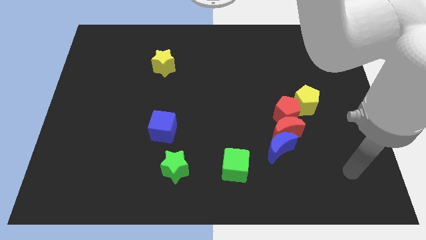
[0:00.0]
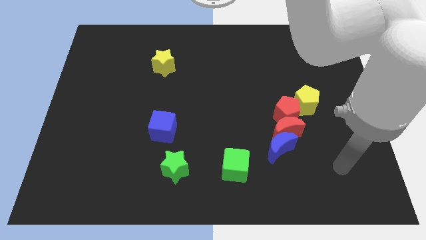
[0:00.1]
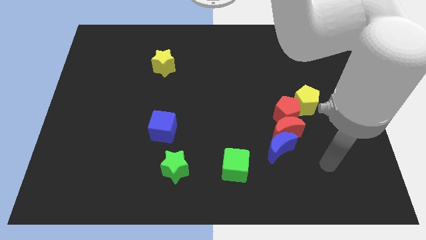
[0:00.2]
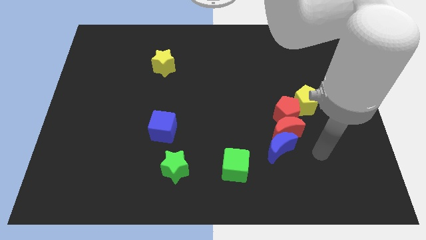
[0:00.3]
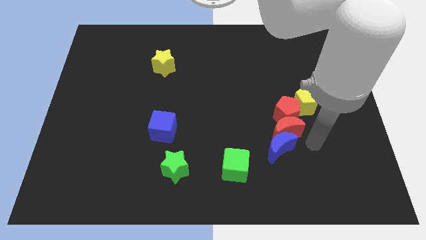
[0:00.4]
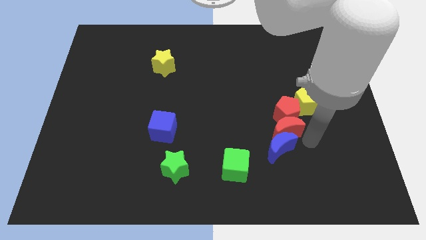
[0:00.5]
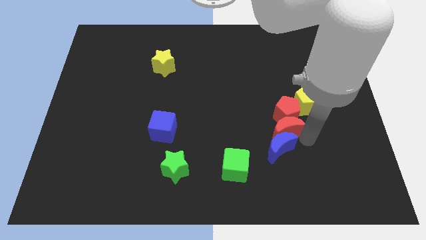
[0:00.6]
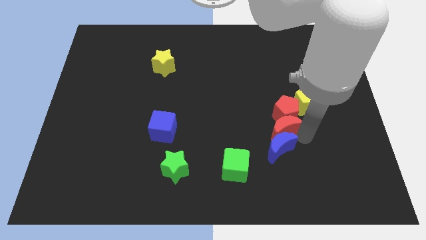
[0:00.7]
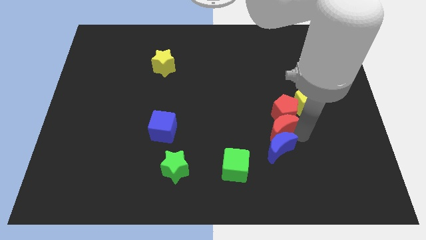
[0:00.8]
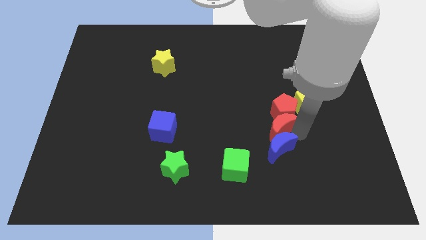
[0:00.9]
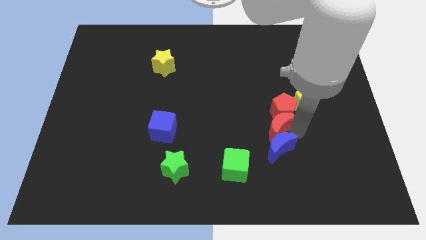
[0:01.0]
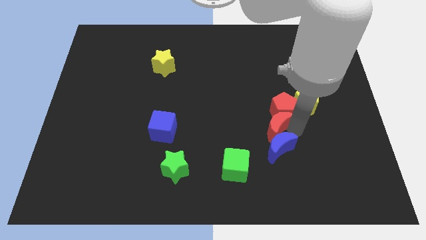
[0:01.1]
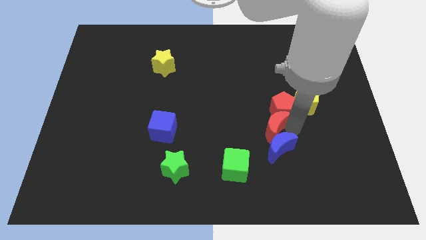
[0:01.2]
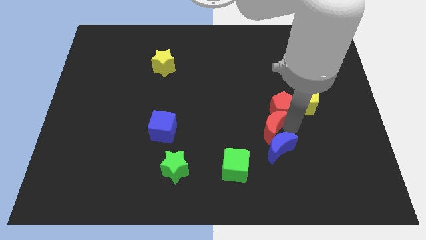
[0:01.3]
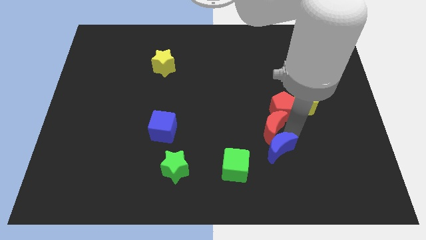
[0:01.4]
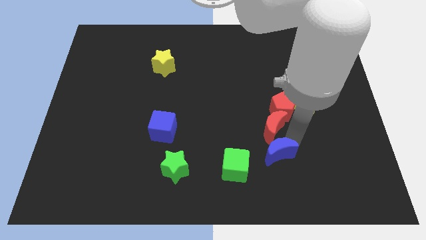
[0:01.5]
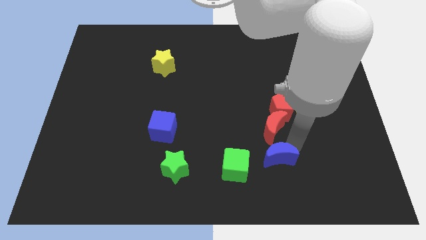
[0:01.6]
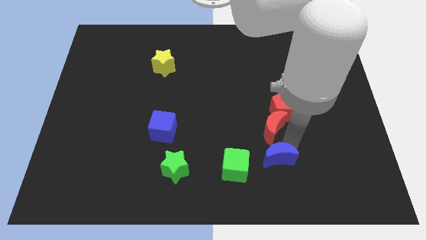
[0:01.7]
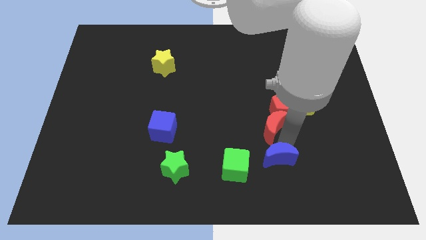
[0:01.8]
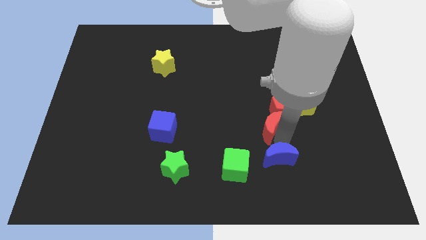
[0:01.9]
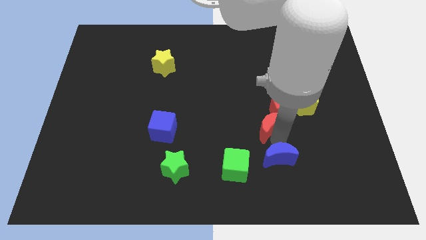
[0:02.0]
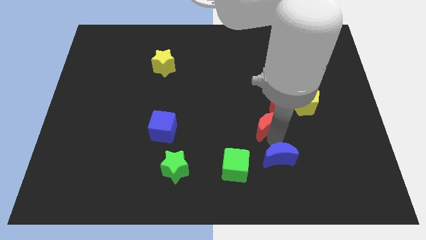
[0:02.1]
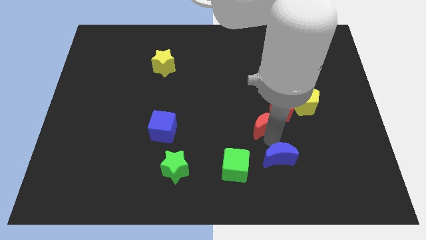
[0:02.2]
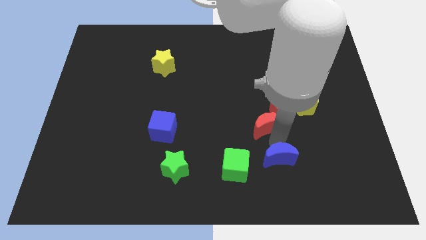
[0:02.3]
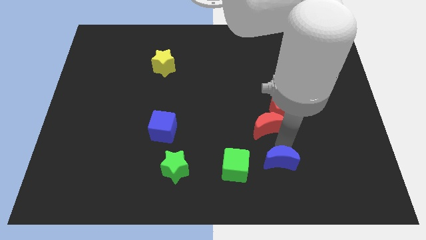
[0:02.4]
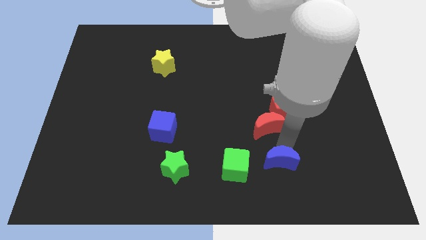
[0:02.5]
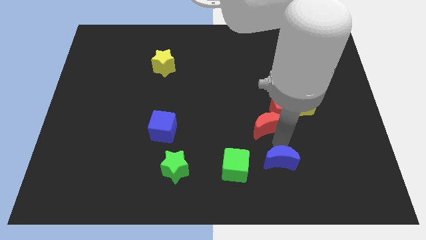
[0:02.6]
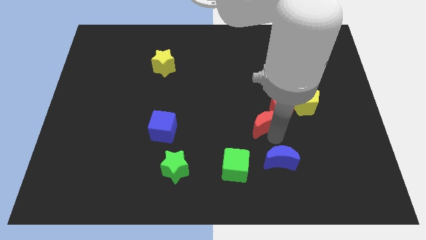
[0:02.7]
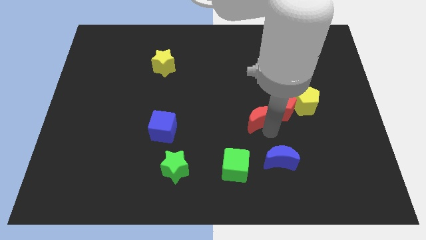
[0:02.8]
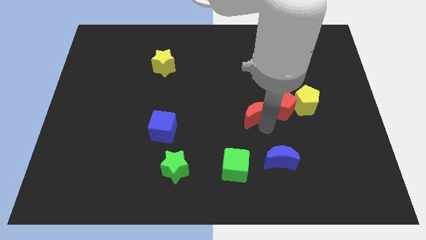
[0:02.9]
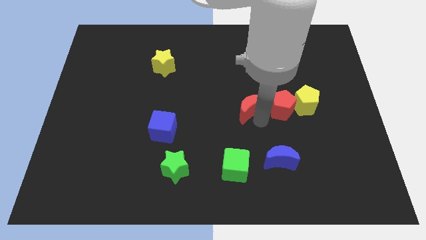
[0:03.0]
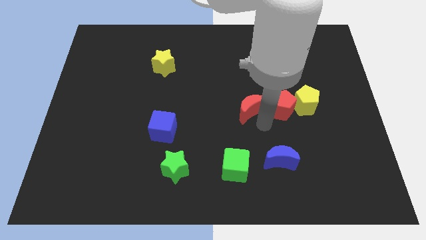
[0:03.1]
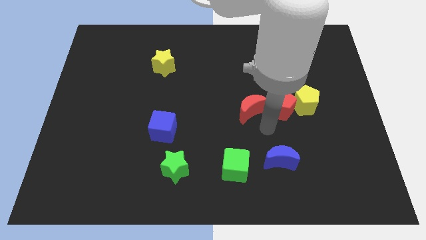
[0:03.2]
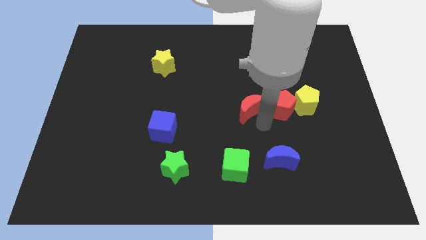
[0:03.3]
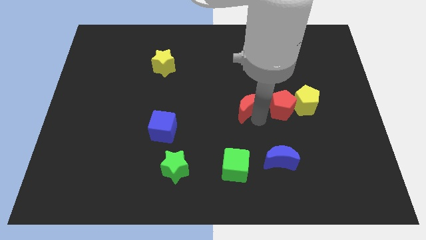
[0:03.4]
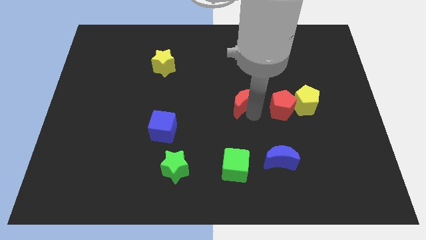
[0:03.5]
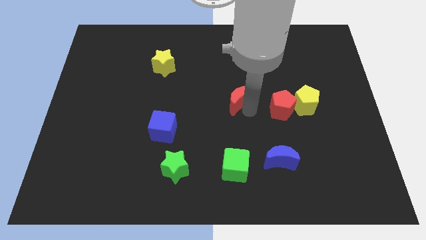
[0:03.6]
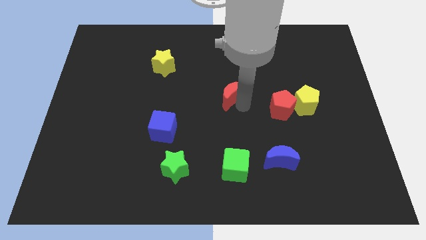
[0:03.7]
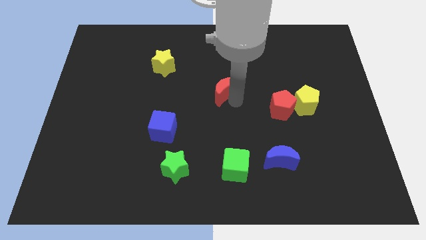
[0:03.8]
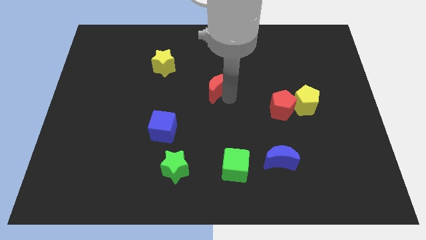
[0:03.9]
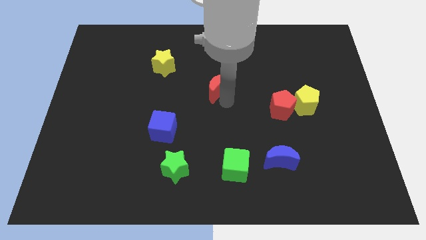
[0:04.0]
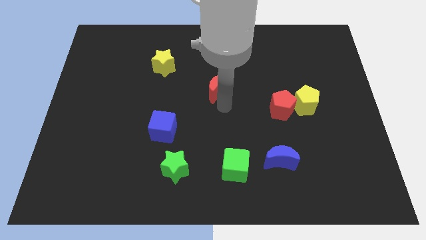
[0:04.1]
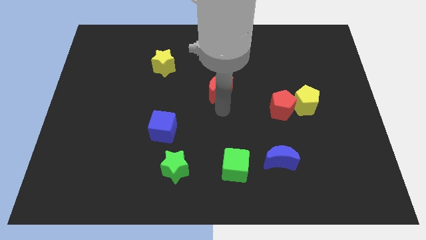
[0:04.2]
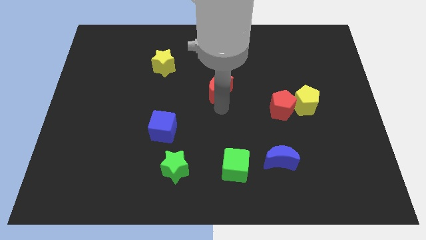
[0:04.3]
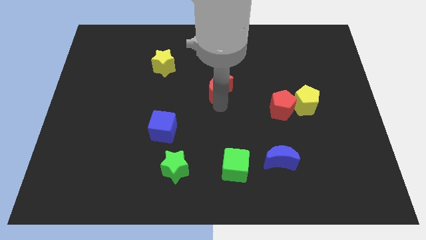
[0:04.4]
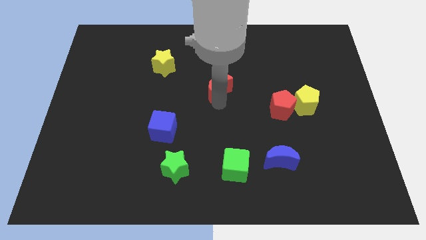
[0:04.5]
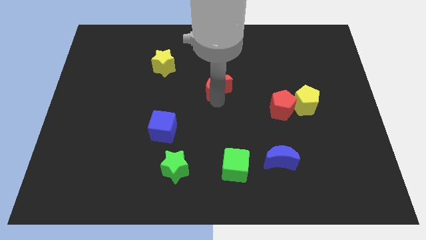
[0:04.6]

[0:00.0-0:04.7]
move the red moon up and left

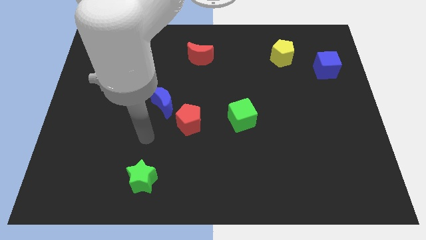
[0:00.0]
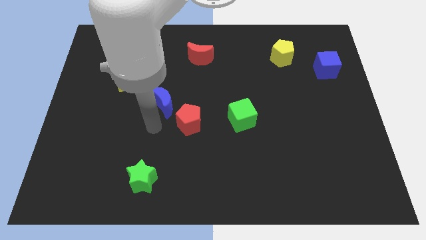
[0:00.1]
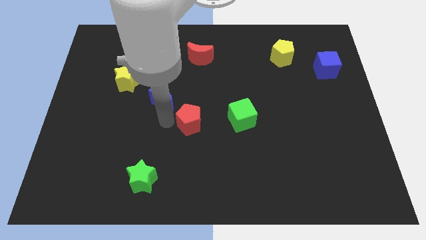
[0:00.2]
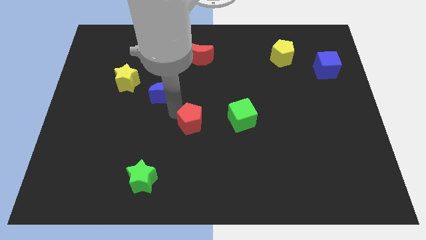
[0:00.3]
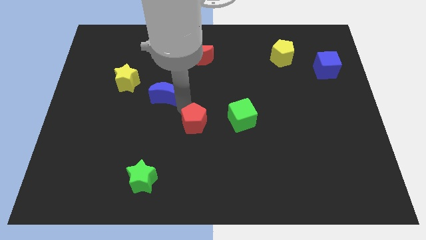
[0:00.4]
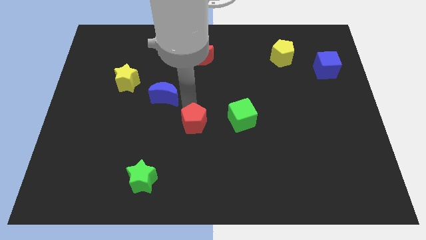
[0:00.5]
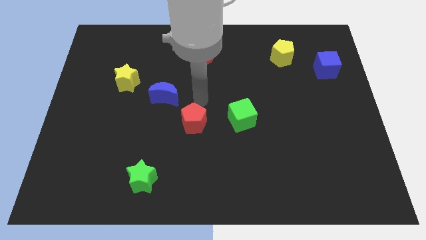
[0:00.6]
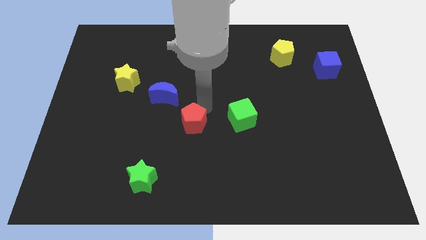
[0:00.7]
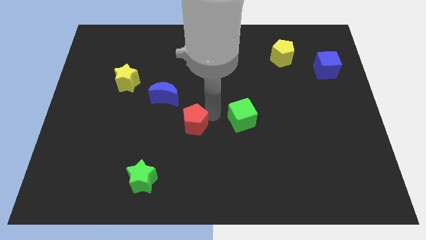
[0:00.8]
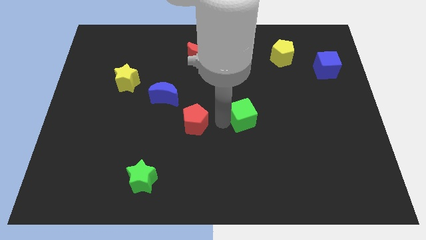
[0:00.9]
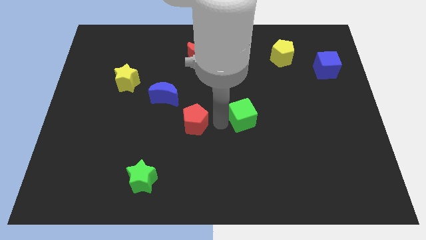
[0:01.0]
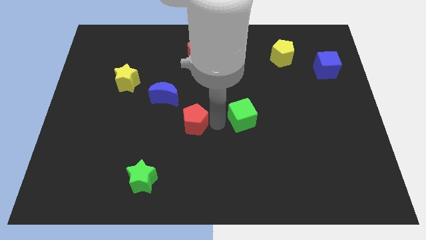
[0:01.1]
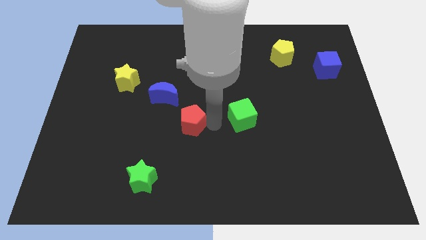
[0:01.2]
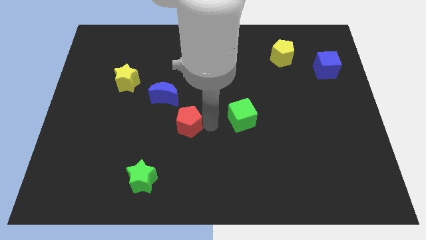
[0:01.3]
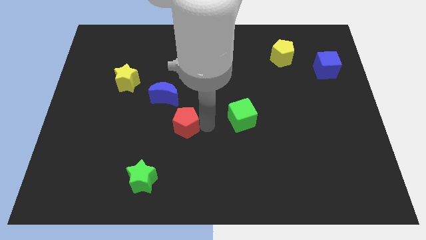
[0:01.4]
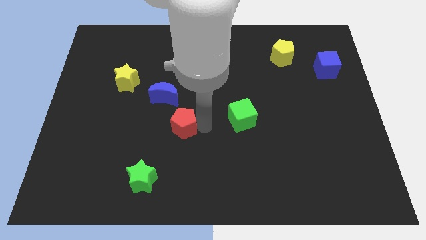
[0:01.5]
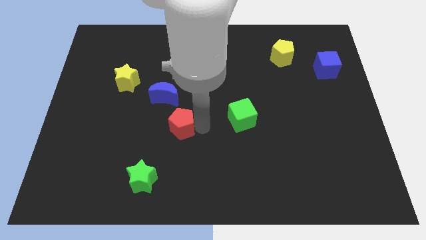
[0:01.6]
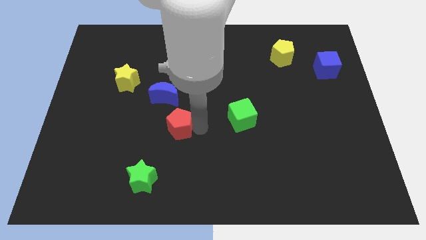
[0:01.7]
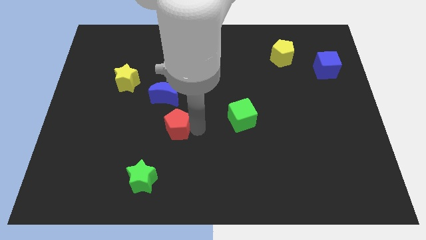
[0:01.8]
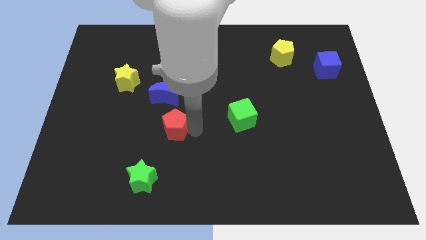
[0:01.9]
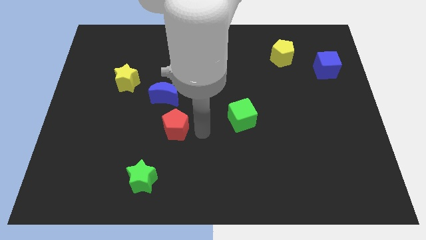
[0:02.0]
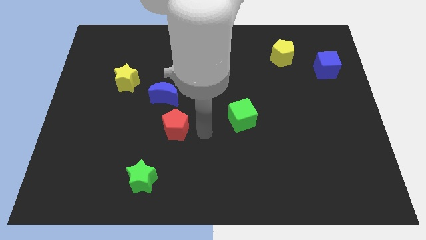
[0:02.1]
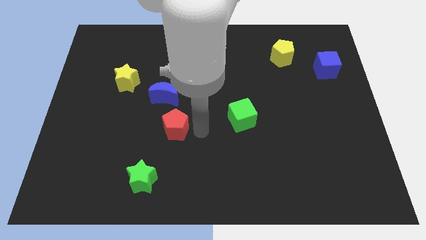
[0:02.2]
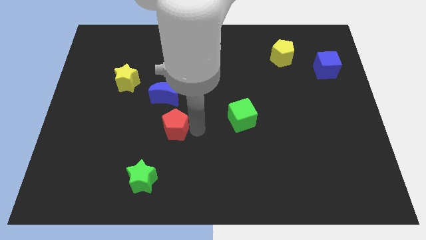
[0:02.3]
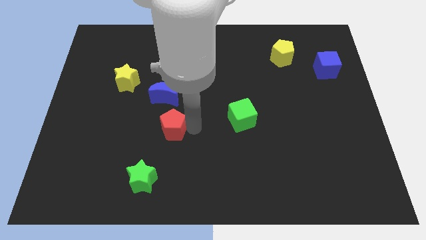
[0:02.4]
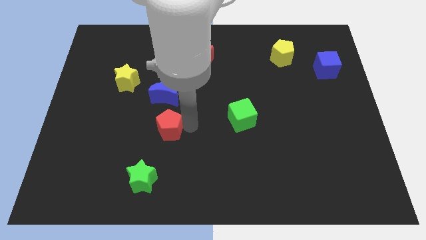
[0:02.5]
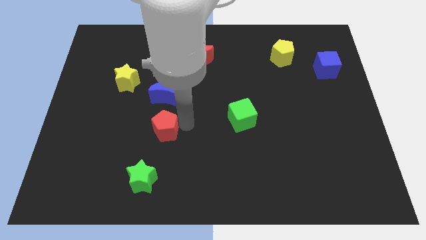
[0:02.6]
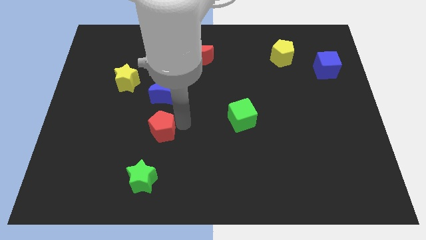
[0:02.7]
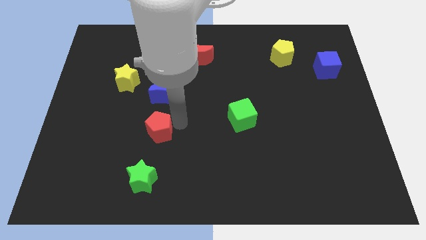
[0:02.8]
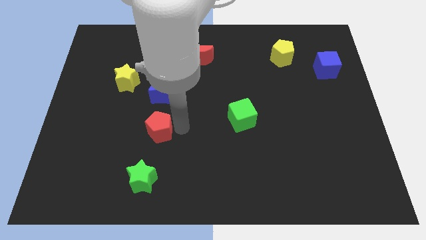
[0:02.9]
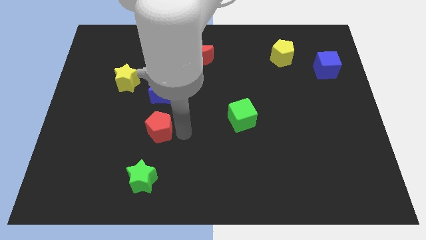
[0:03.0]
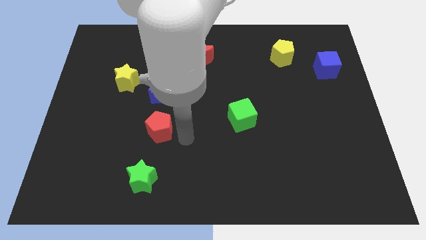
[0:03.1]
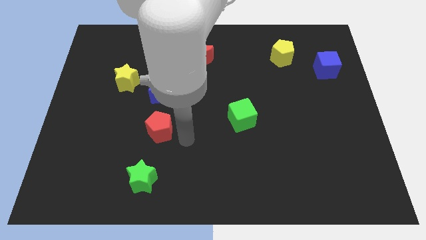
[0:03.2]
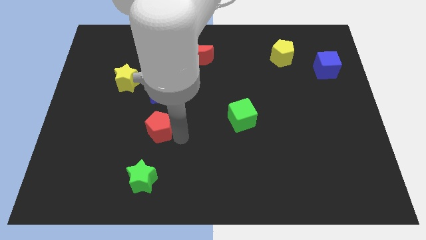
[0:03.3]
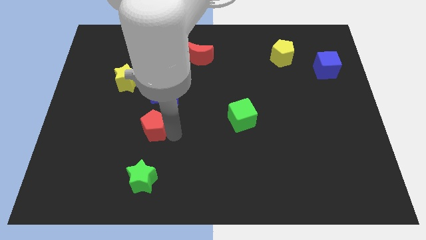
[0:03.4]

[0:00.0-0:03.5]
slide the red pentagon left somewhat
